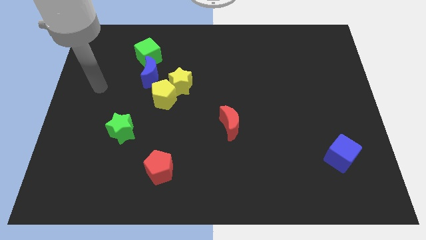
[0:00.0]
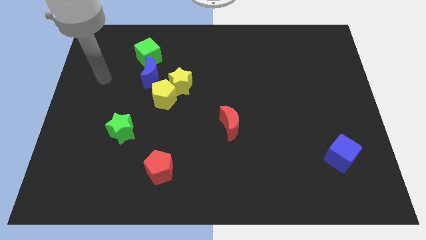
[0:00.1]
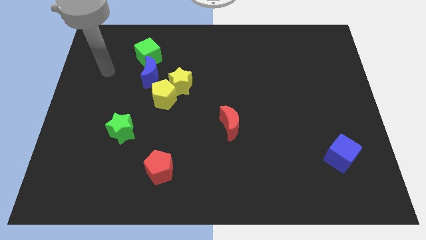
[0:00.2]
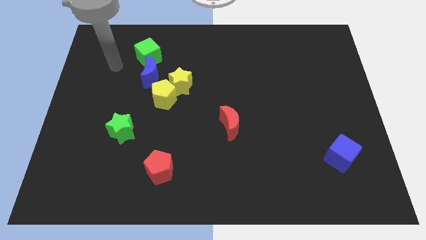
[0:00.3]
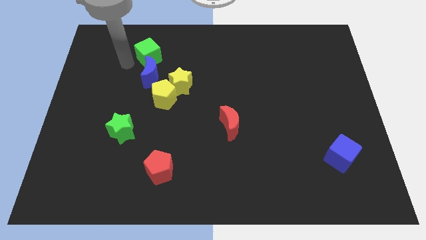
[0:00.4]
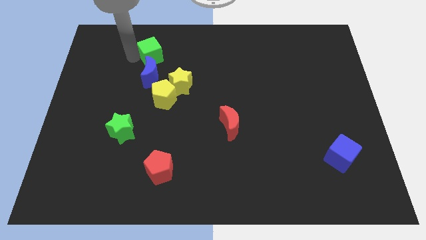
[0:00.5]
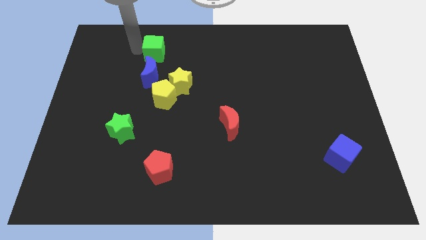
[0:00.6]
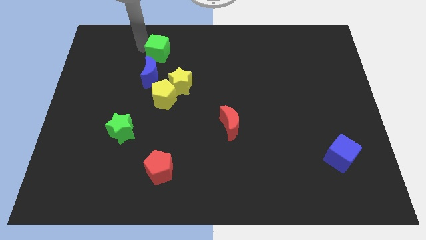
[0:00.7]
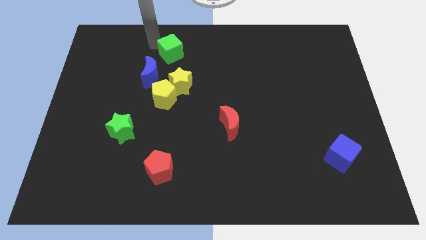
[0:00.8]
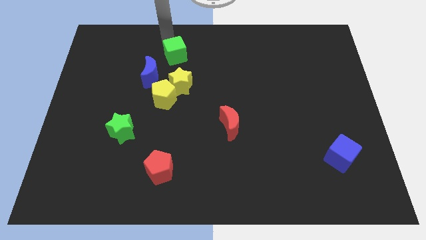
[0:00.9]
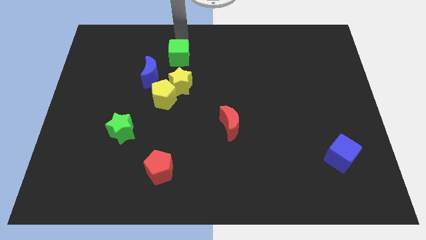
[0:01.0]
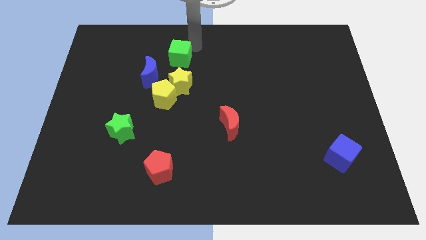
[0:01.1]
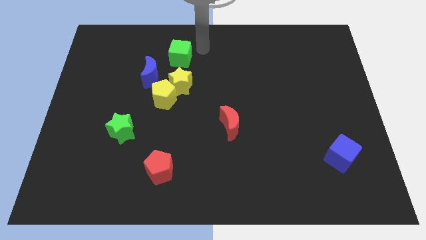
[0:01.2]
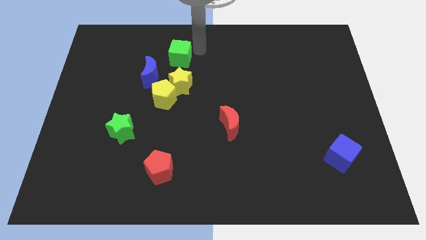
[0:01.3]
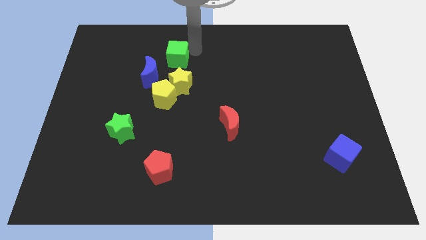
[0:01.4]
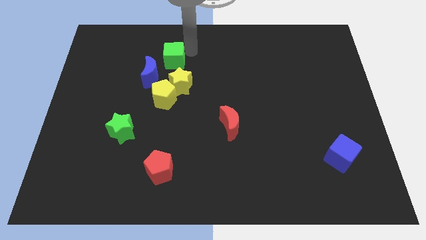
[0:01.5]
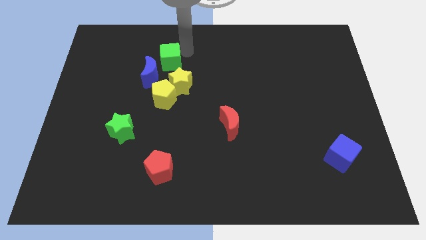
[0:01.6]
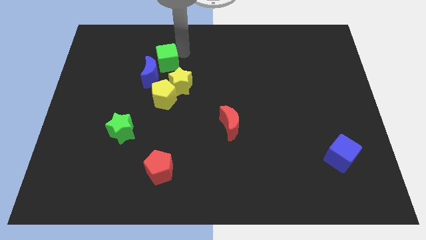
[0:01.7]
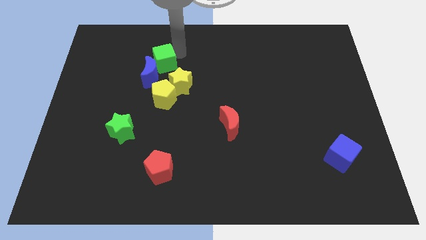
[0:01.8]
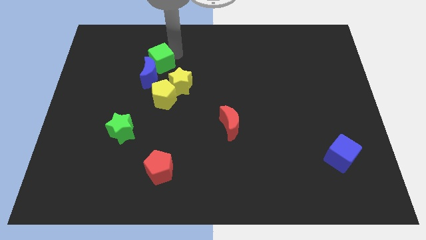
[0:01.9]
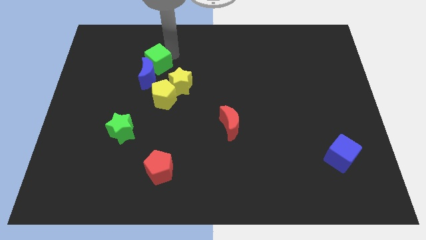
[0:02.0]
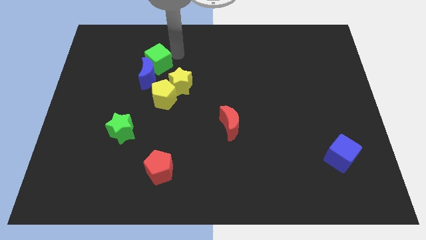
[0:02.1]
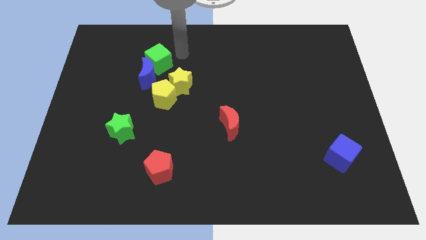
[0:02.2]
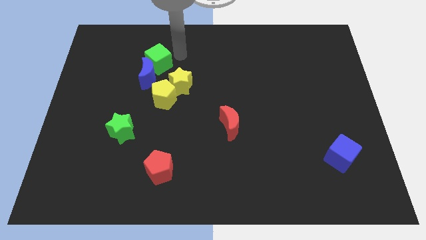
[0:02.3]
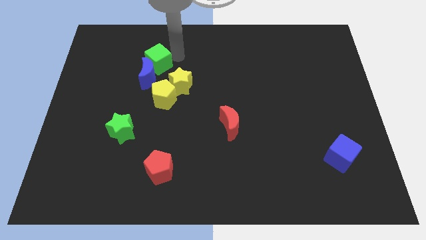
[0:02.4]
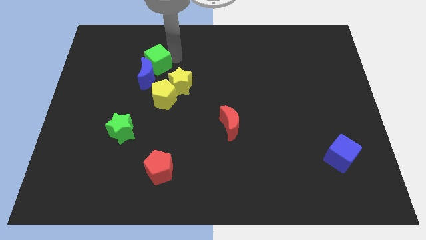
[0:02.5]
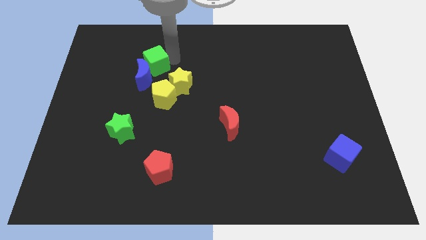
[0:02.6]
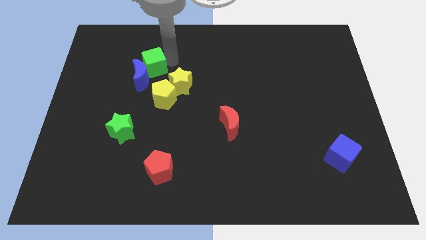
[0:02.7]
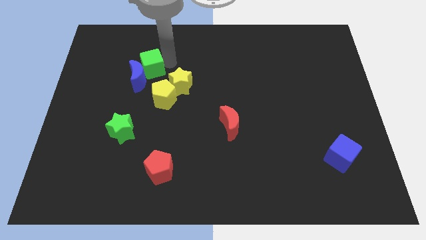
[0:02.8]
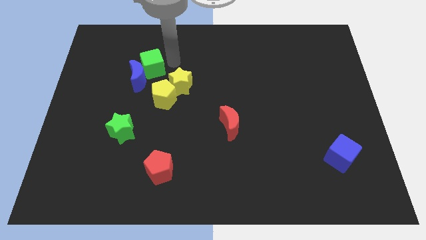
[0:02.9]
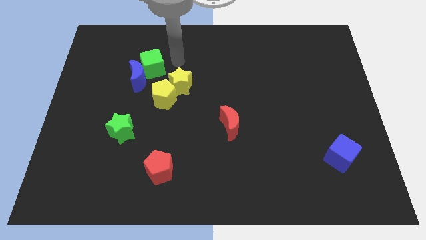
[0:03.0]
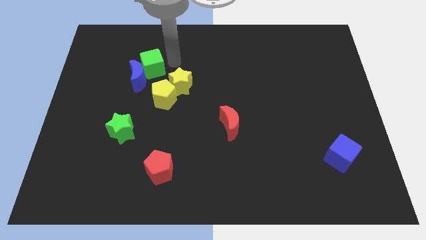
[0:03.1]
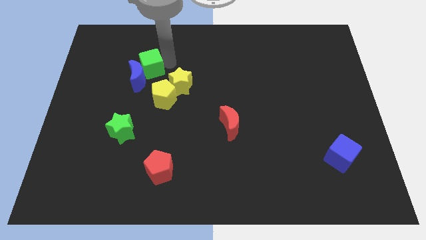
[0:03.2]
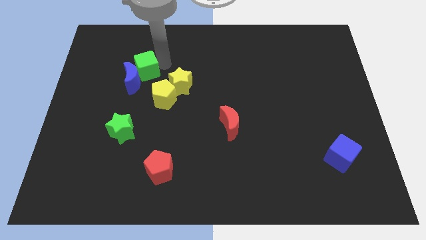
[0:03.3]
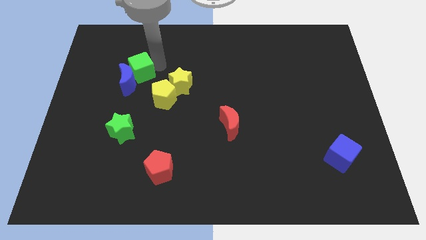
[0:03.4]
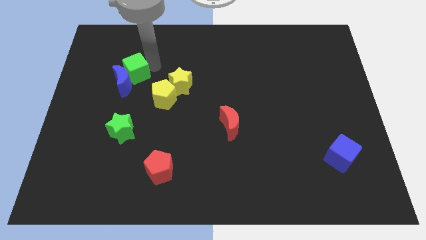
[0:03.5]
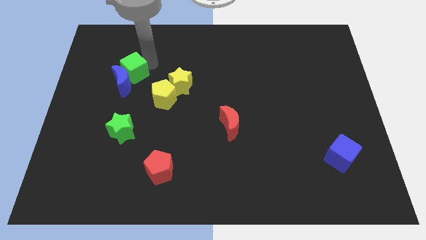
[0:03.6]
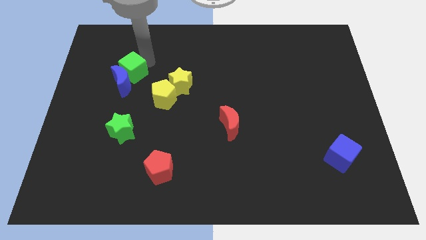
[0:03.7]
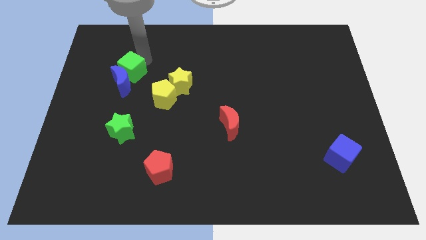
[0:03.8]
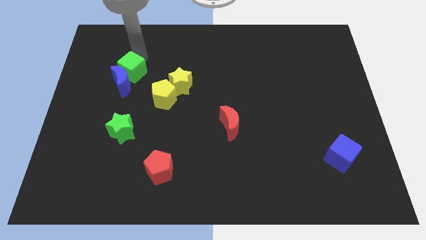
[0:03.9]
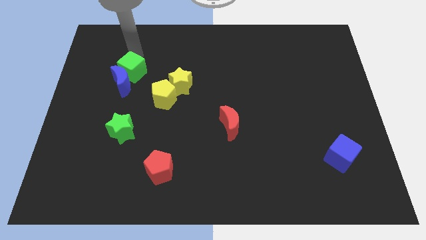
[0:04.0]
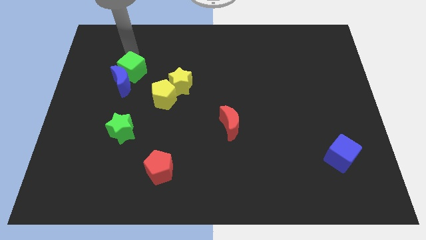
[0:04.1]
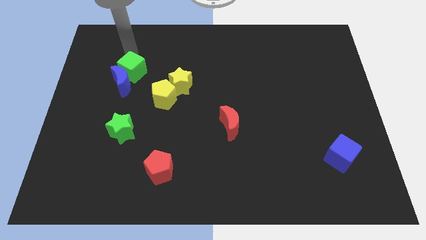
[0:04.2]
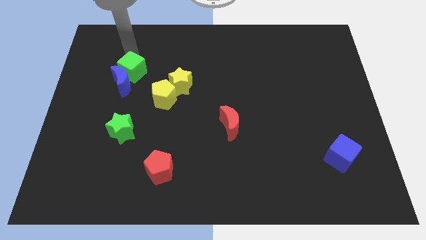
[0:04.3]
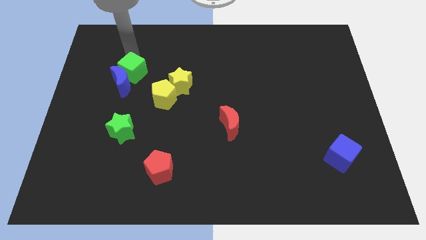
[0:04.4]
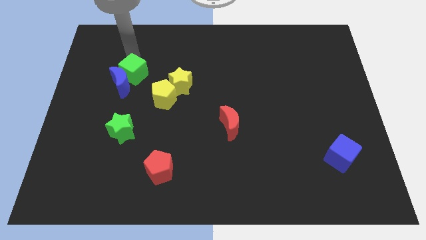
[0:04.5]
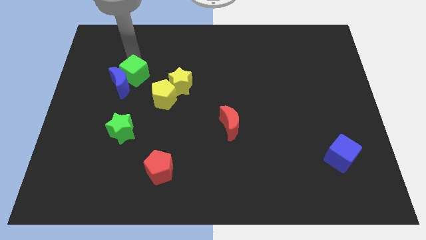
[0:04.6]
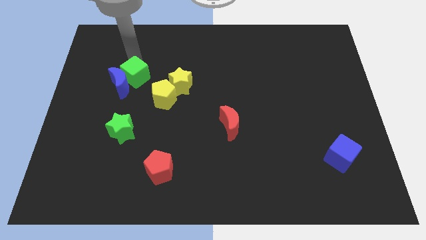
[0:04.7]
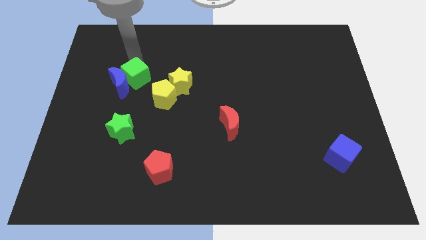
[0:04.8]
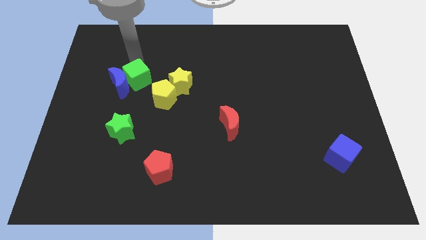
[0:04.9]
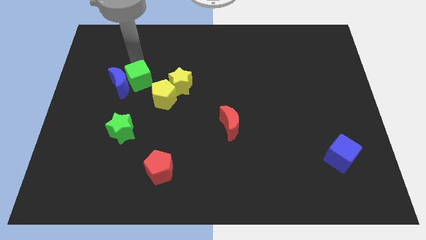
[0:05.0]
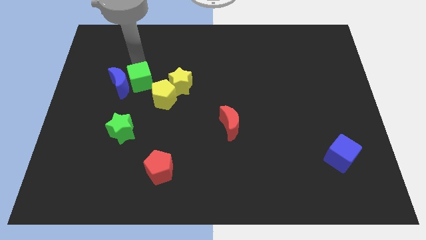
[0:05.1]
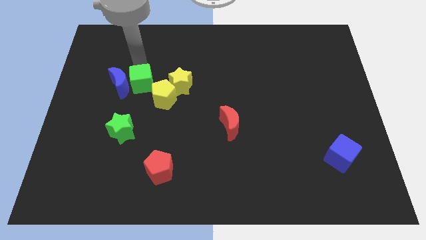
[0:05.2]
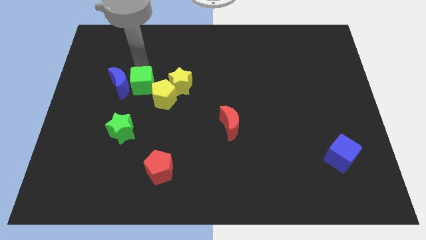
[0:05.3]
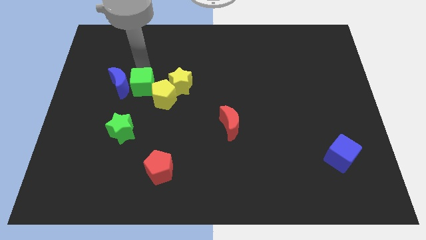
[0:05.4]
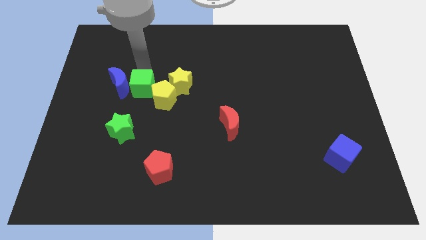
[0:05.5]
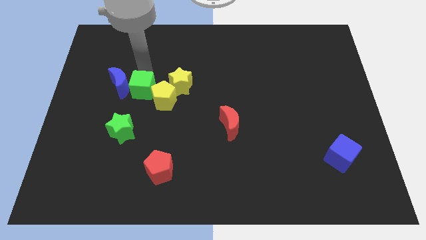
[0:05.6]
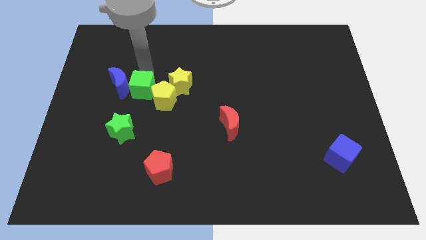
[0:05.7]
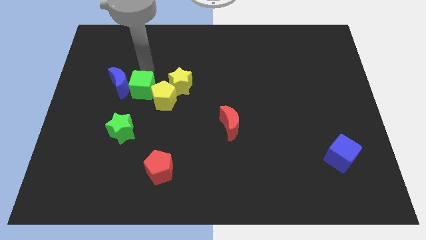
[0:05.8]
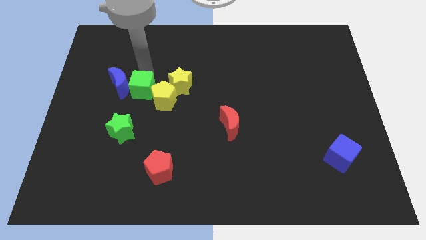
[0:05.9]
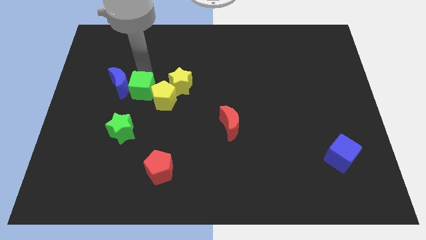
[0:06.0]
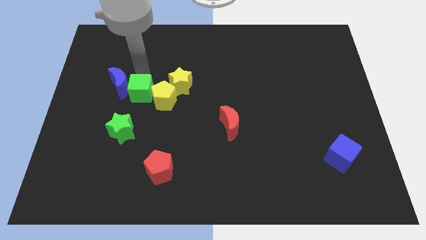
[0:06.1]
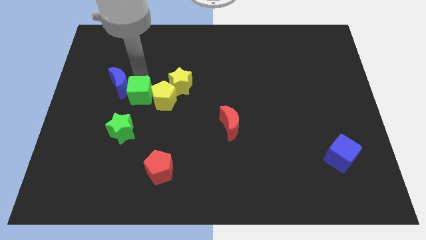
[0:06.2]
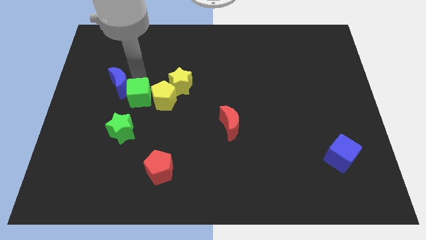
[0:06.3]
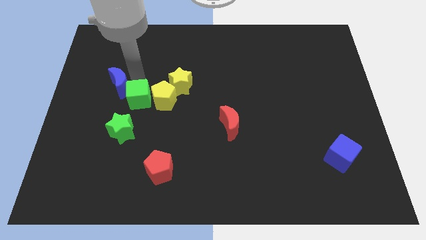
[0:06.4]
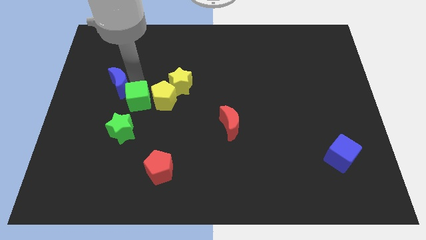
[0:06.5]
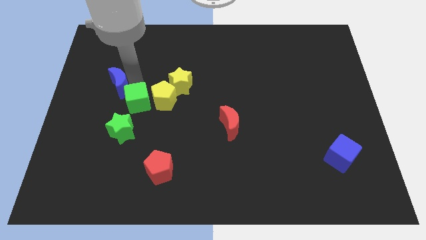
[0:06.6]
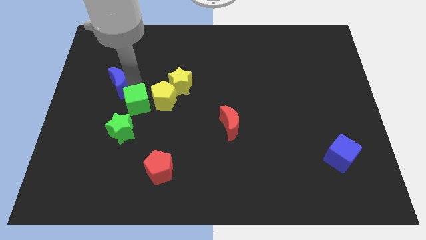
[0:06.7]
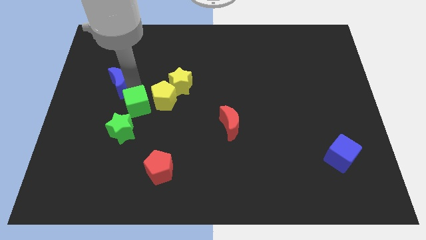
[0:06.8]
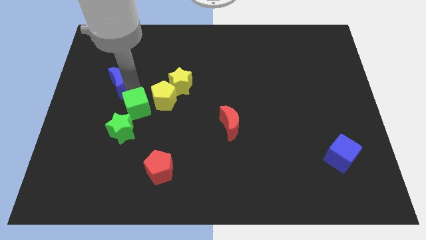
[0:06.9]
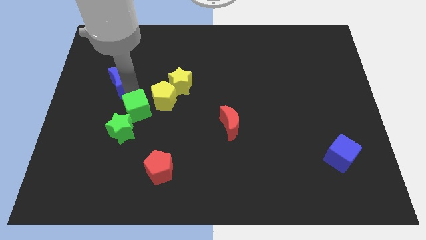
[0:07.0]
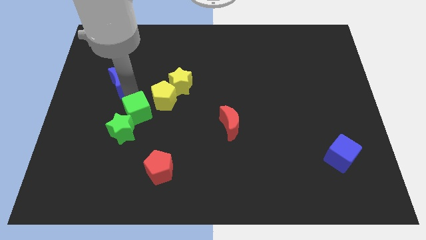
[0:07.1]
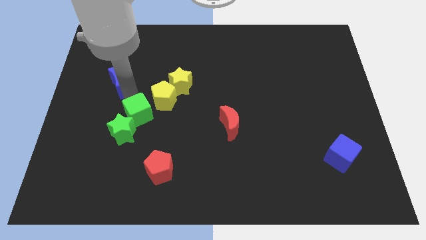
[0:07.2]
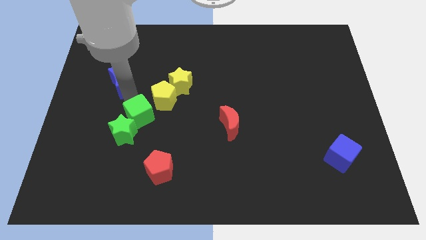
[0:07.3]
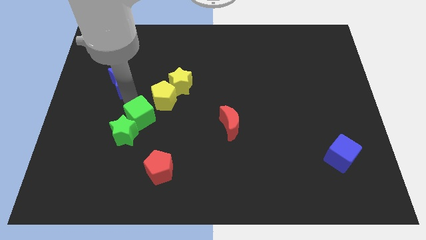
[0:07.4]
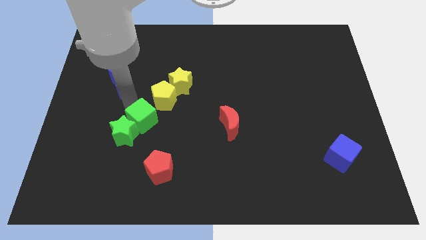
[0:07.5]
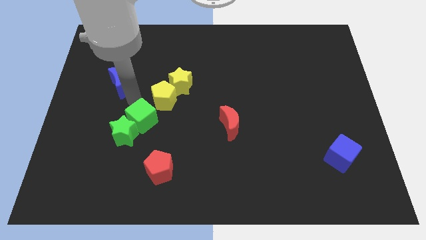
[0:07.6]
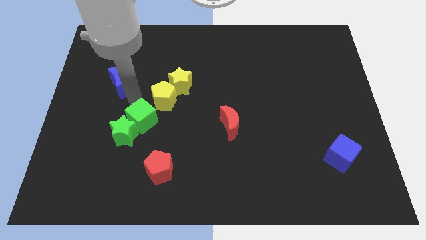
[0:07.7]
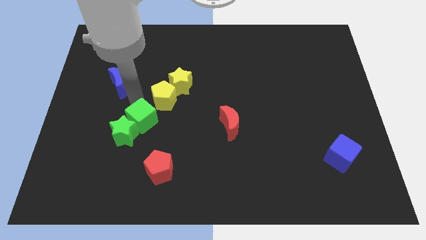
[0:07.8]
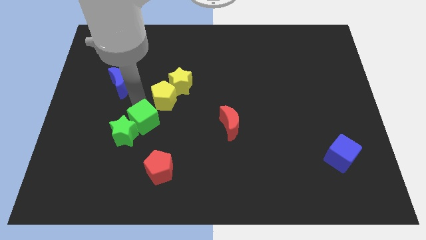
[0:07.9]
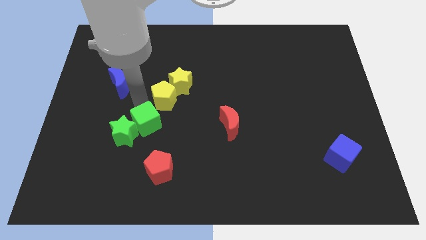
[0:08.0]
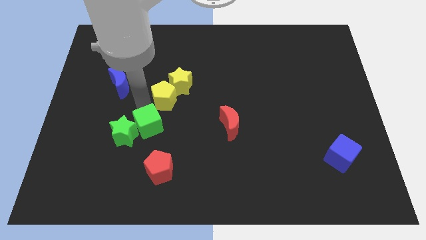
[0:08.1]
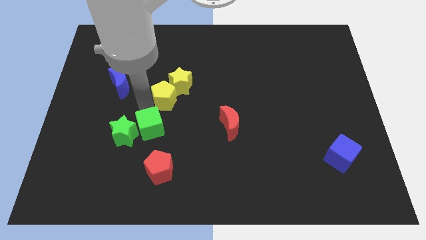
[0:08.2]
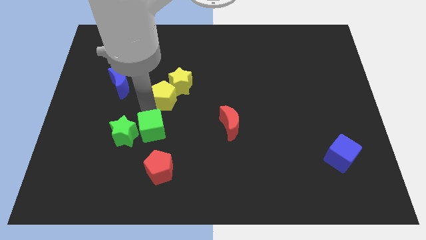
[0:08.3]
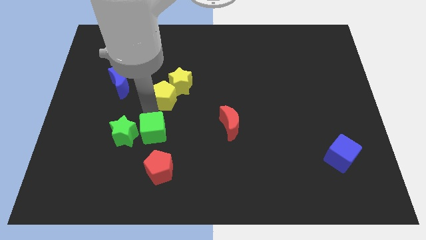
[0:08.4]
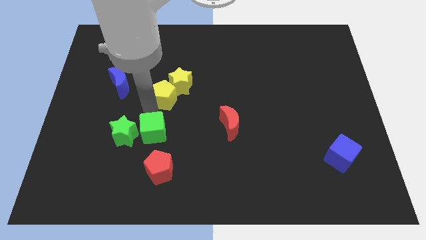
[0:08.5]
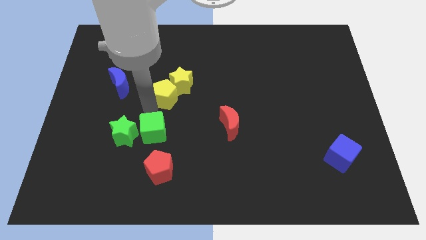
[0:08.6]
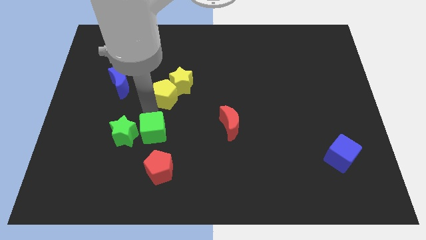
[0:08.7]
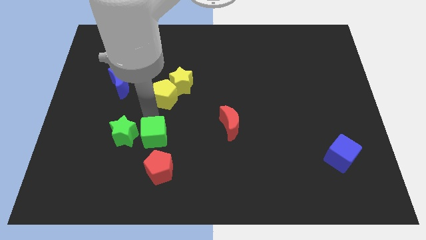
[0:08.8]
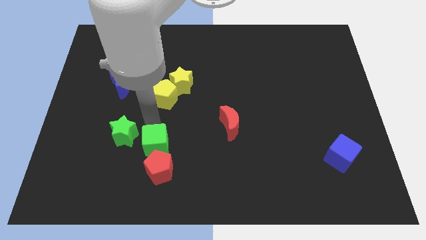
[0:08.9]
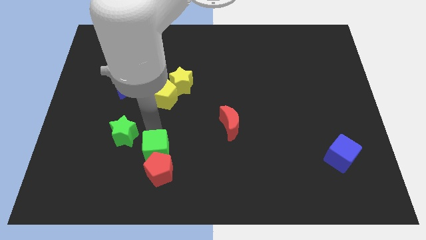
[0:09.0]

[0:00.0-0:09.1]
push the green cube close to the red pentagon
